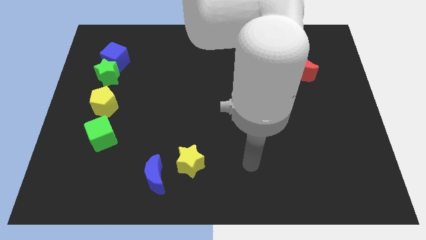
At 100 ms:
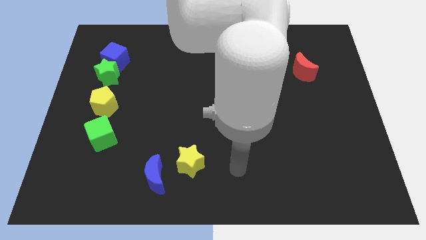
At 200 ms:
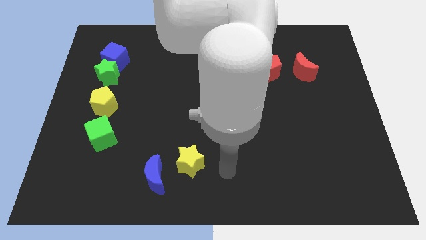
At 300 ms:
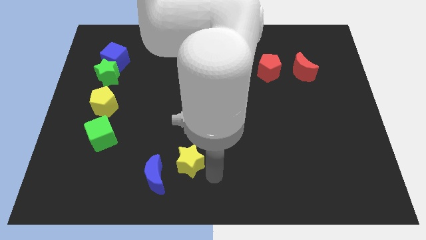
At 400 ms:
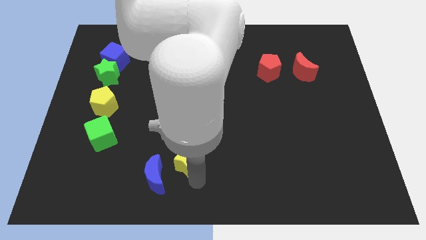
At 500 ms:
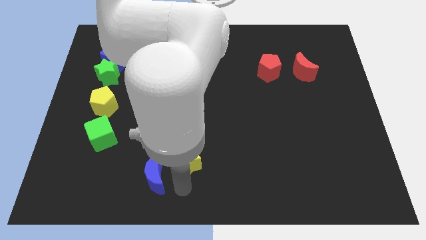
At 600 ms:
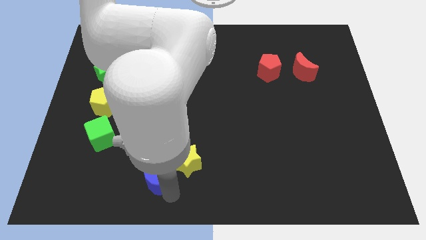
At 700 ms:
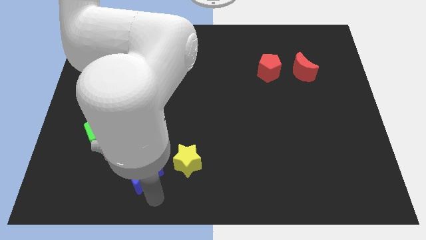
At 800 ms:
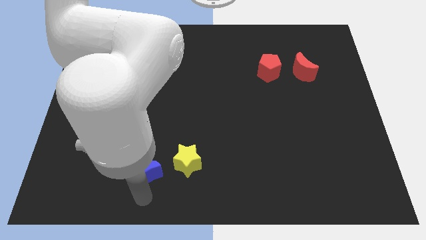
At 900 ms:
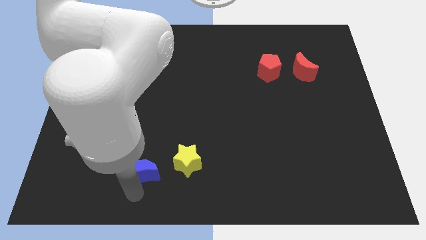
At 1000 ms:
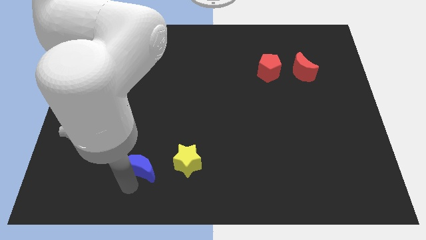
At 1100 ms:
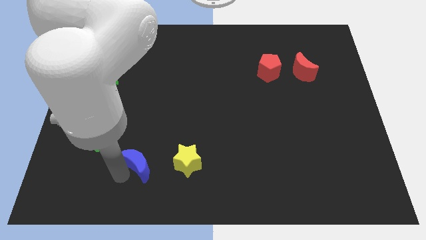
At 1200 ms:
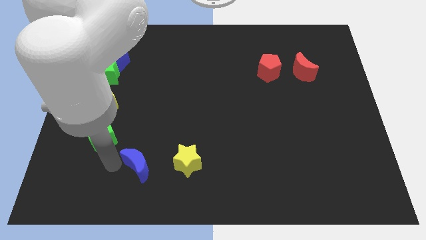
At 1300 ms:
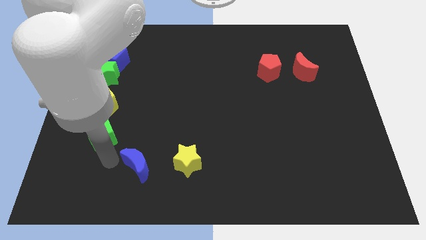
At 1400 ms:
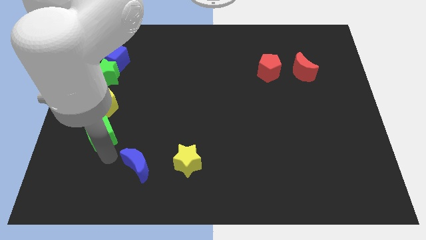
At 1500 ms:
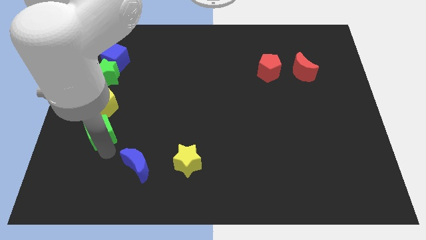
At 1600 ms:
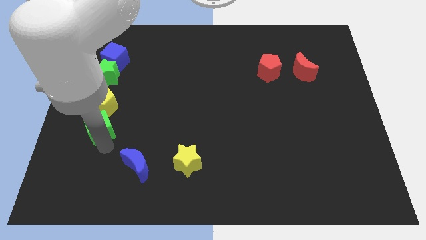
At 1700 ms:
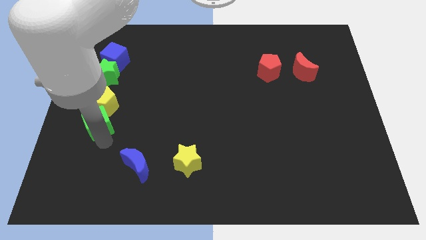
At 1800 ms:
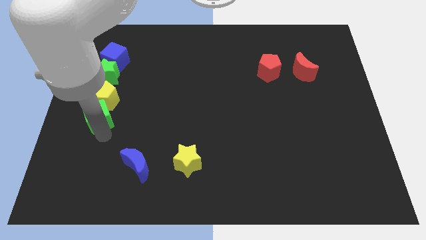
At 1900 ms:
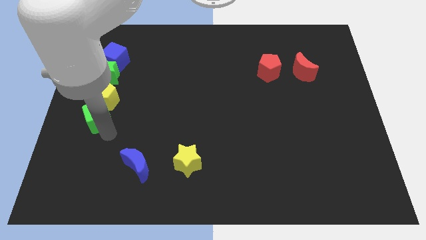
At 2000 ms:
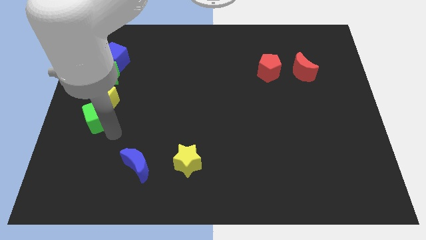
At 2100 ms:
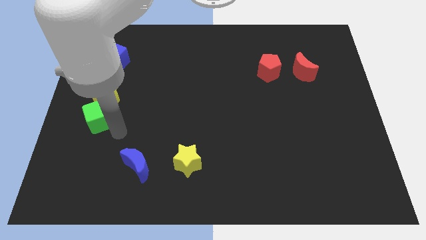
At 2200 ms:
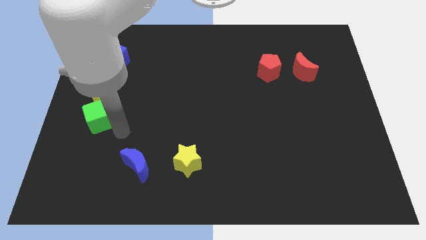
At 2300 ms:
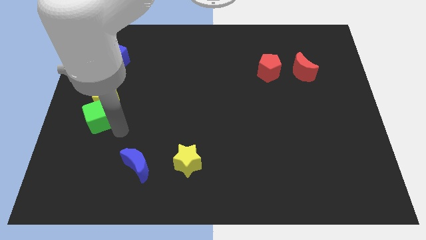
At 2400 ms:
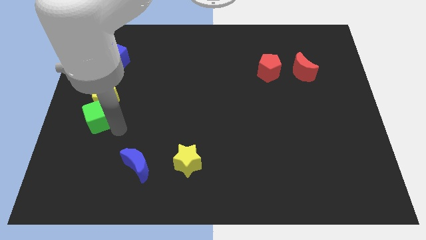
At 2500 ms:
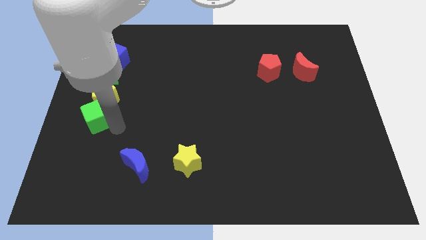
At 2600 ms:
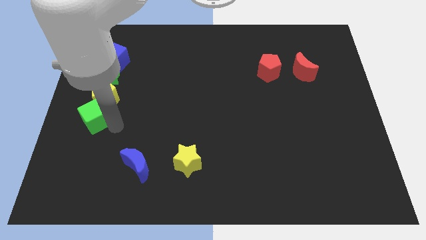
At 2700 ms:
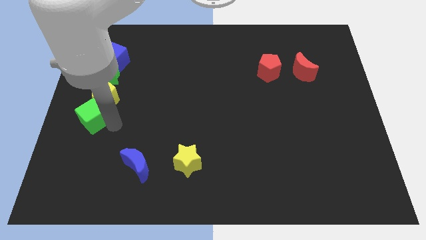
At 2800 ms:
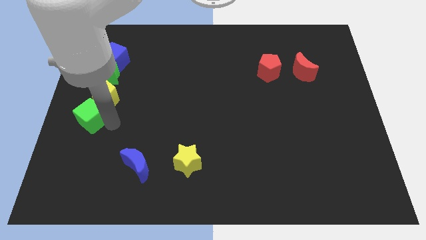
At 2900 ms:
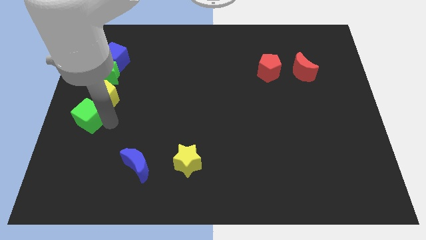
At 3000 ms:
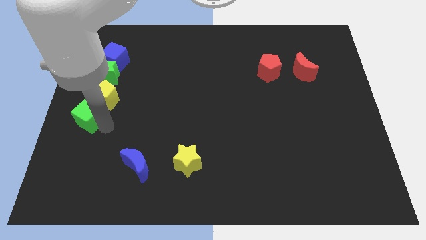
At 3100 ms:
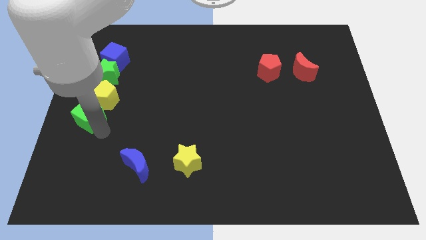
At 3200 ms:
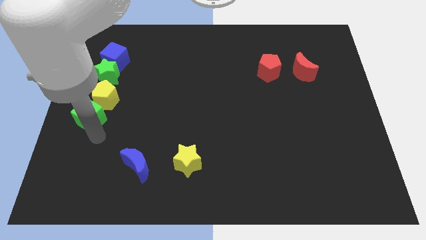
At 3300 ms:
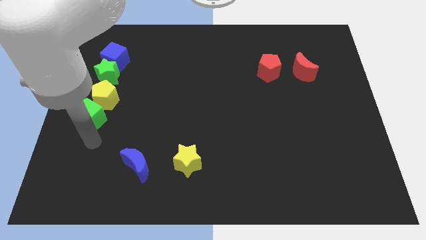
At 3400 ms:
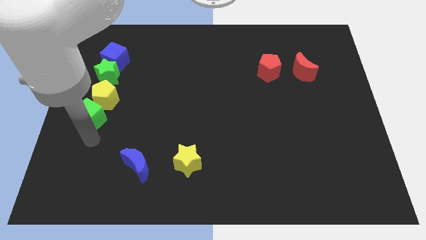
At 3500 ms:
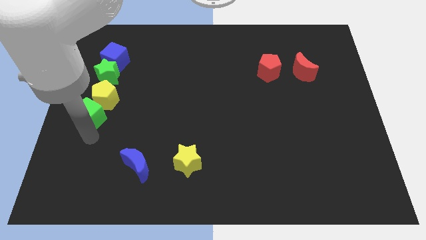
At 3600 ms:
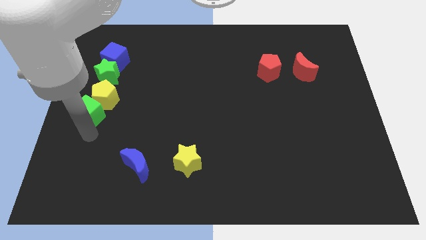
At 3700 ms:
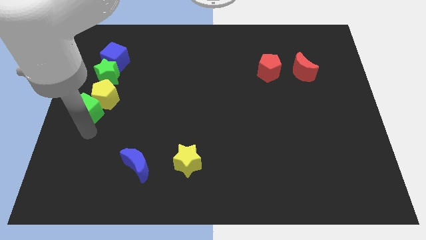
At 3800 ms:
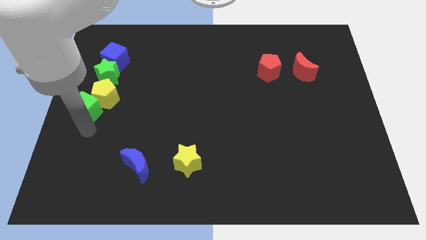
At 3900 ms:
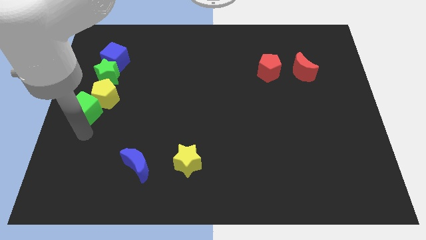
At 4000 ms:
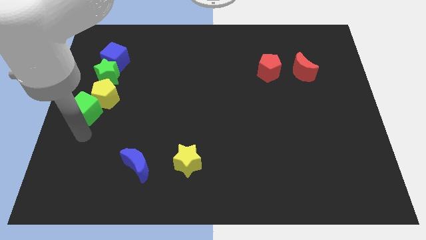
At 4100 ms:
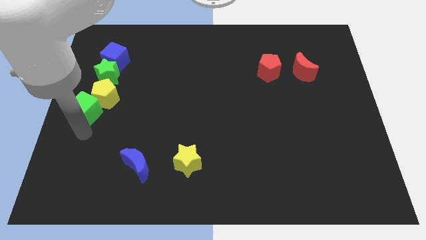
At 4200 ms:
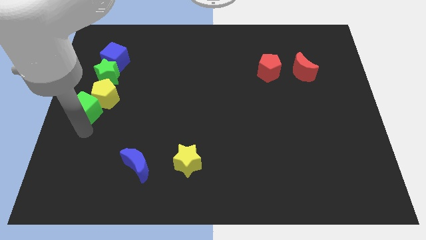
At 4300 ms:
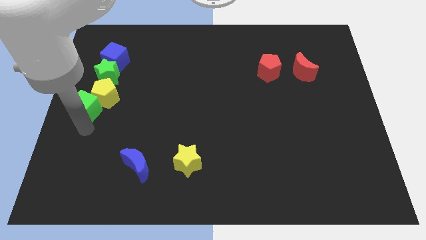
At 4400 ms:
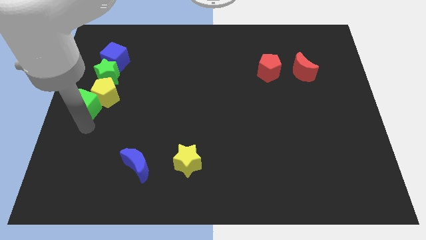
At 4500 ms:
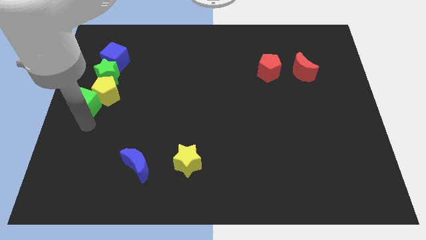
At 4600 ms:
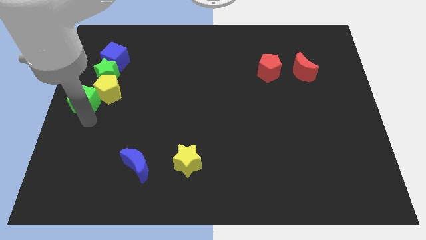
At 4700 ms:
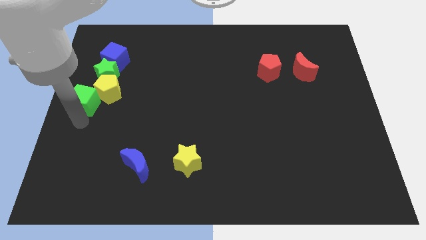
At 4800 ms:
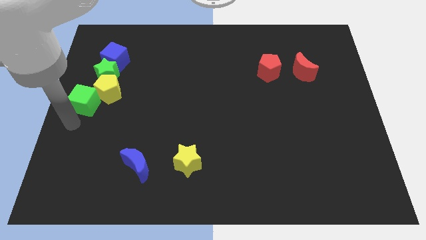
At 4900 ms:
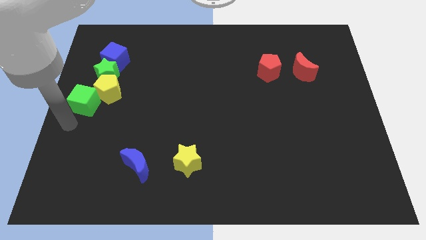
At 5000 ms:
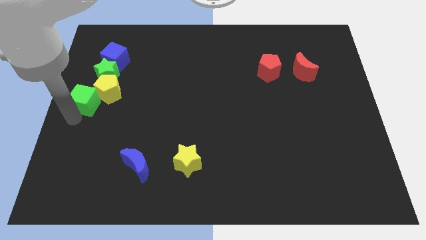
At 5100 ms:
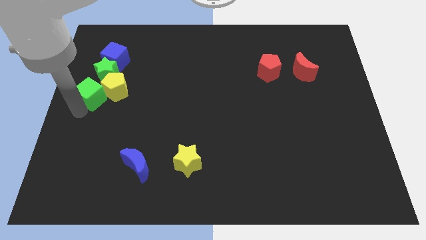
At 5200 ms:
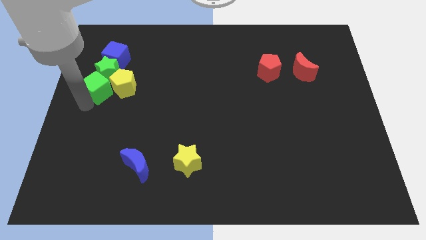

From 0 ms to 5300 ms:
slide the green cube next to the green star

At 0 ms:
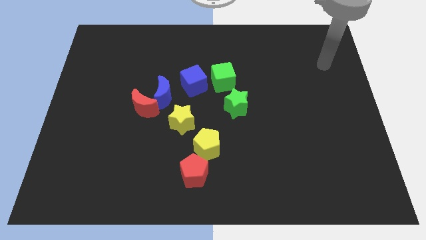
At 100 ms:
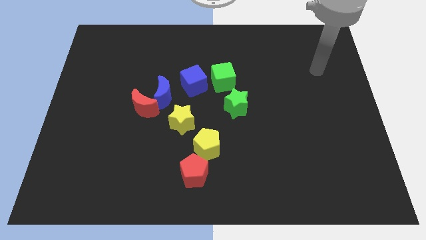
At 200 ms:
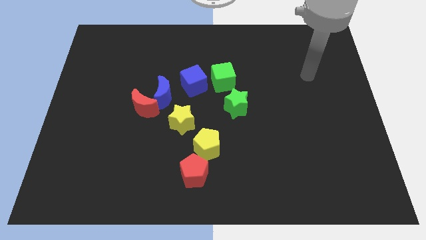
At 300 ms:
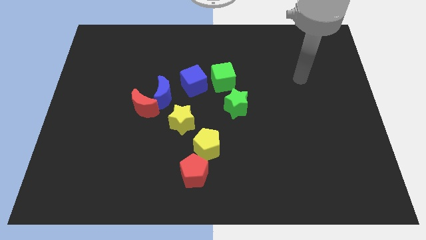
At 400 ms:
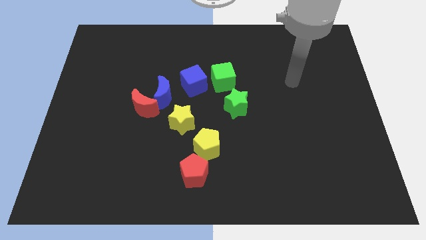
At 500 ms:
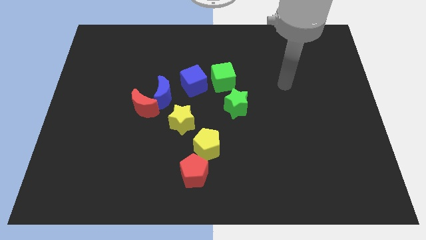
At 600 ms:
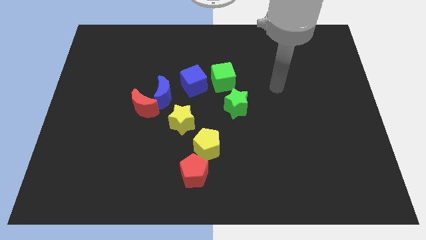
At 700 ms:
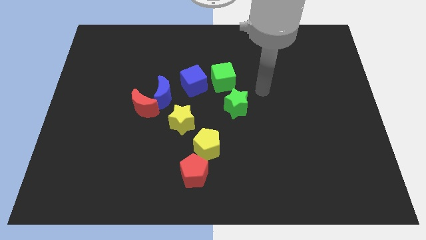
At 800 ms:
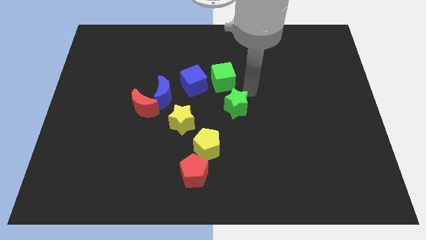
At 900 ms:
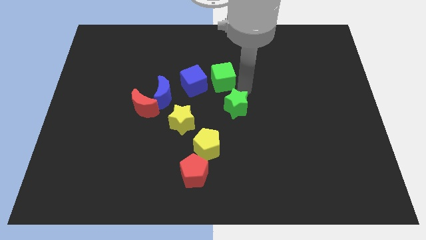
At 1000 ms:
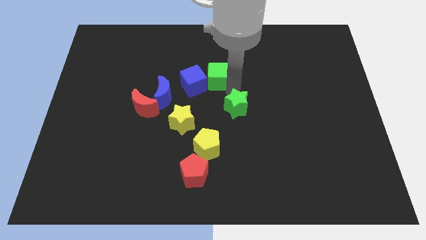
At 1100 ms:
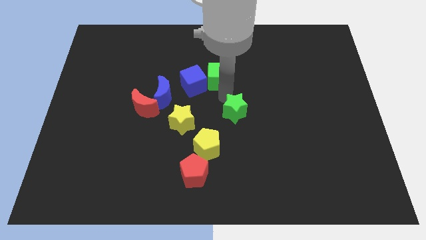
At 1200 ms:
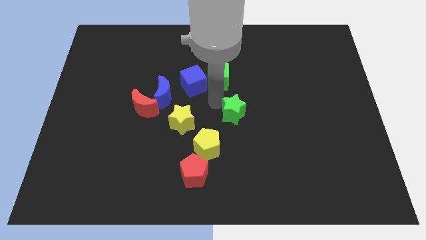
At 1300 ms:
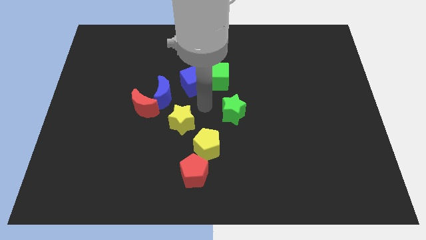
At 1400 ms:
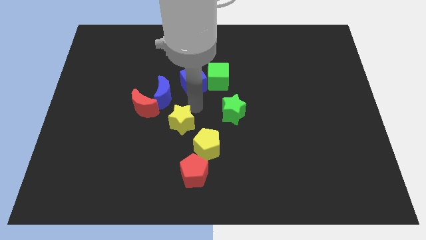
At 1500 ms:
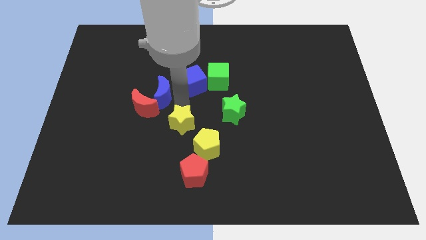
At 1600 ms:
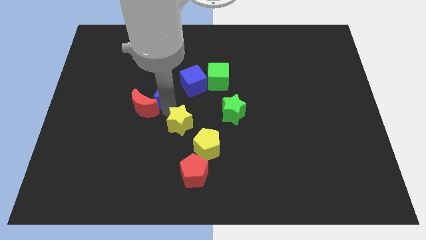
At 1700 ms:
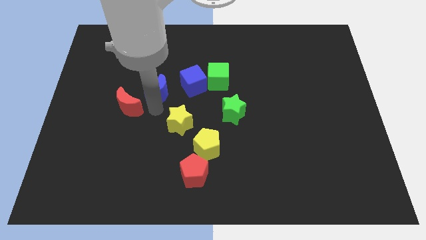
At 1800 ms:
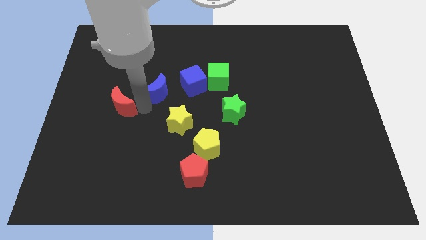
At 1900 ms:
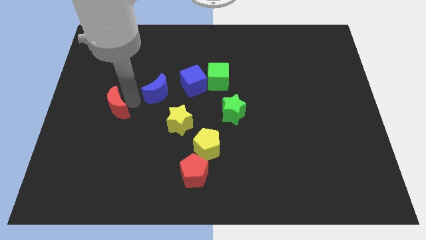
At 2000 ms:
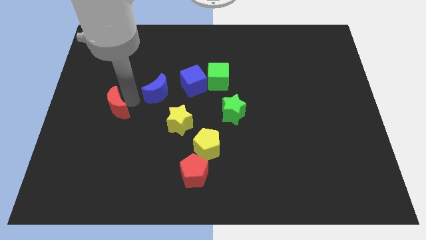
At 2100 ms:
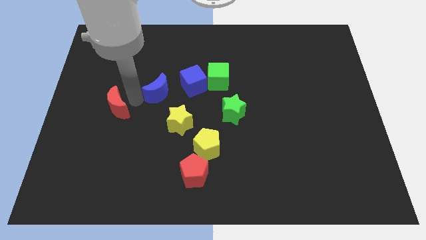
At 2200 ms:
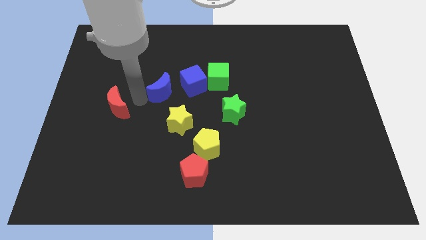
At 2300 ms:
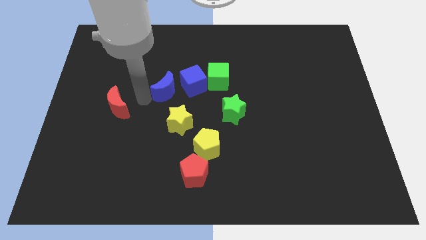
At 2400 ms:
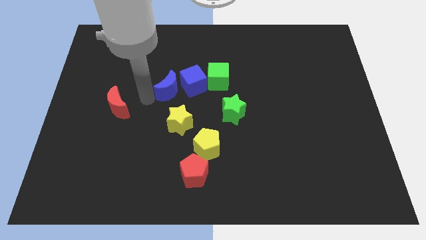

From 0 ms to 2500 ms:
put the blue moon towards the blue cube
